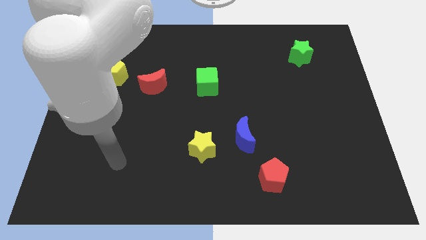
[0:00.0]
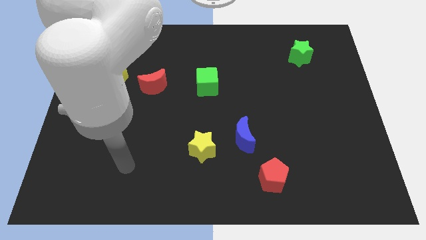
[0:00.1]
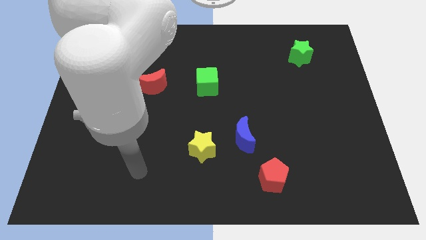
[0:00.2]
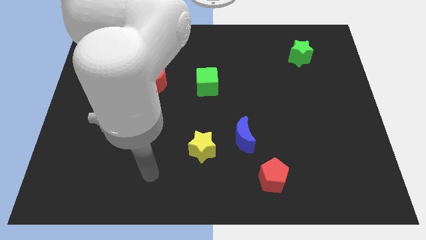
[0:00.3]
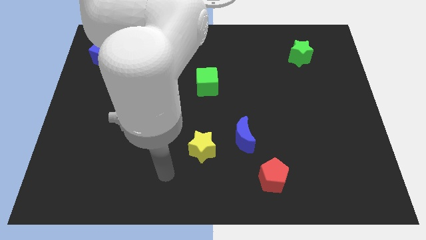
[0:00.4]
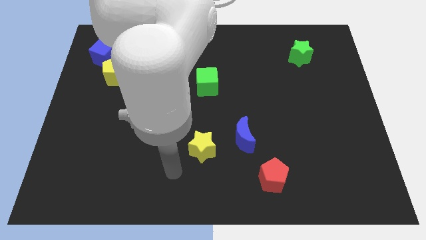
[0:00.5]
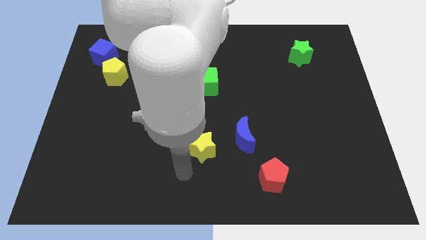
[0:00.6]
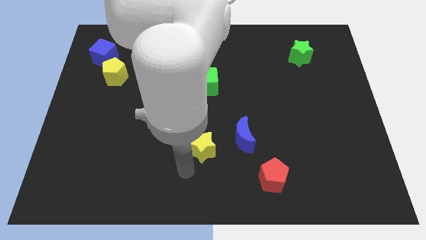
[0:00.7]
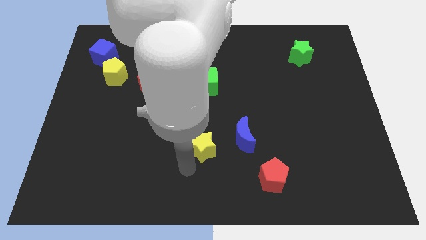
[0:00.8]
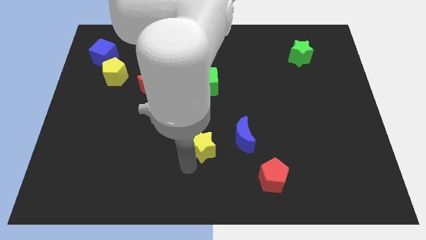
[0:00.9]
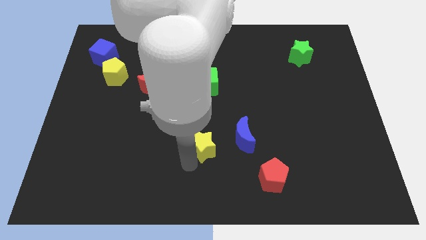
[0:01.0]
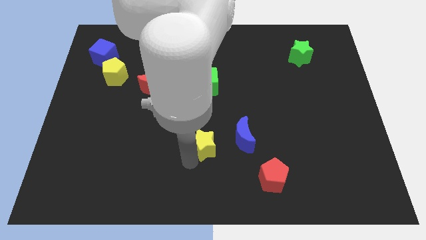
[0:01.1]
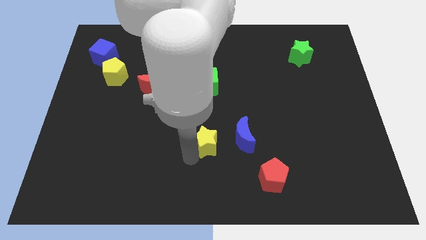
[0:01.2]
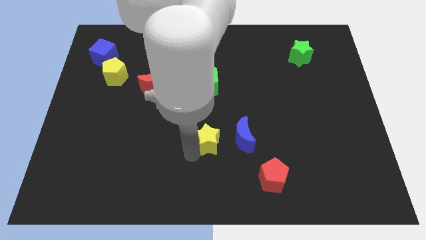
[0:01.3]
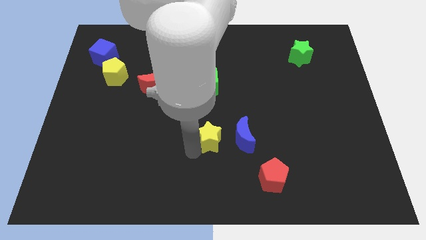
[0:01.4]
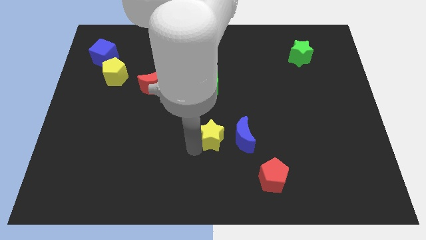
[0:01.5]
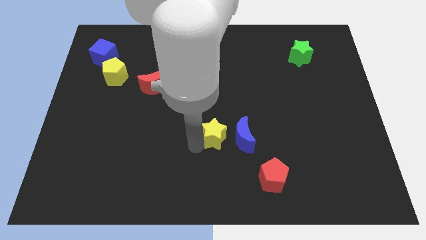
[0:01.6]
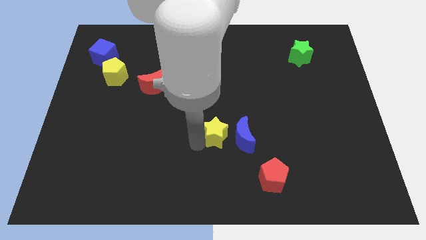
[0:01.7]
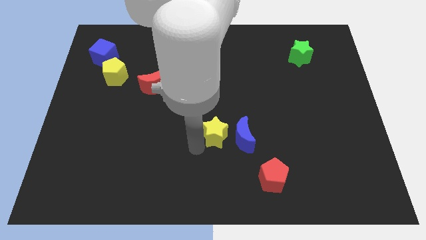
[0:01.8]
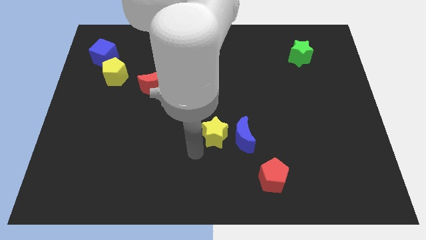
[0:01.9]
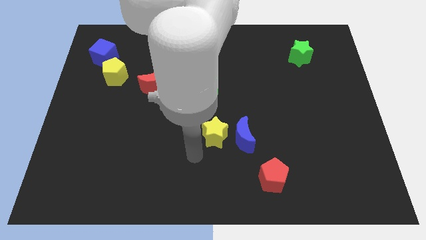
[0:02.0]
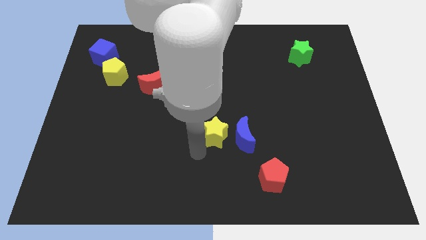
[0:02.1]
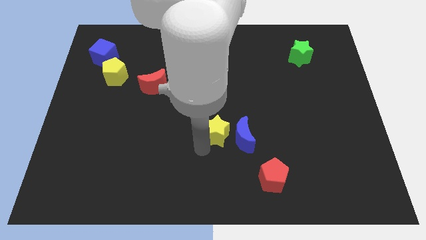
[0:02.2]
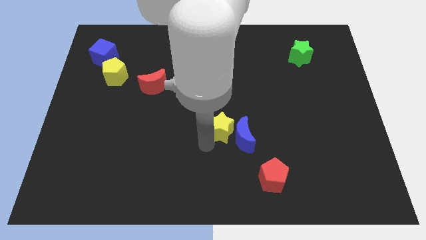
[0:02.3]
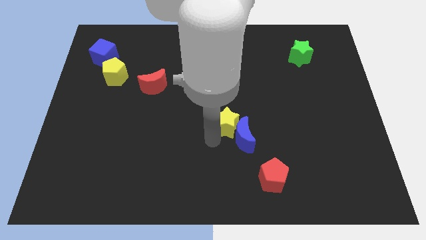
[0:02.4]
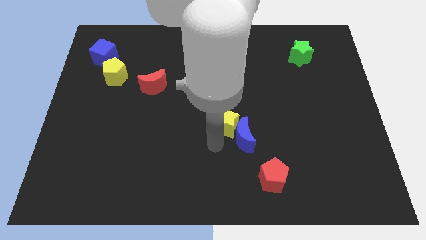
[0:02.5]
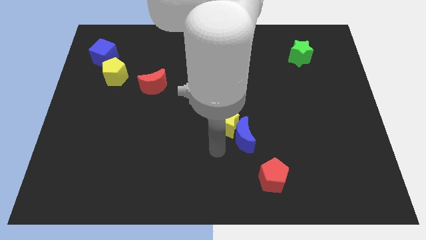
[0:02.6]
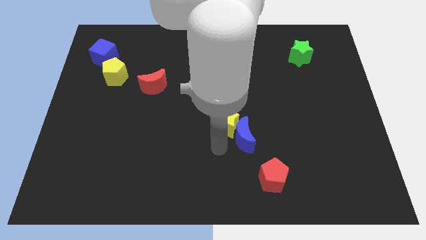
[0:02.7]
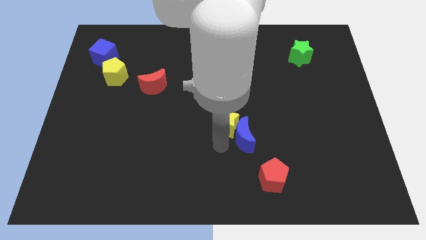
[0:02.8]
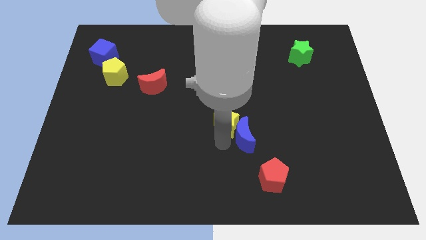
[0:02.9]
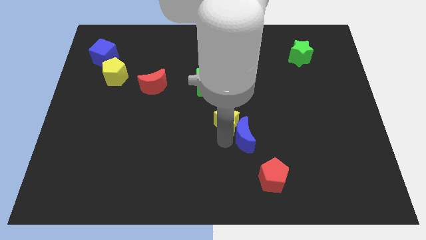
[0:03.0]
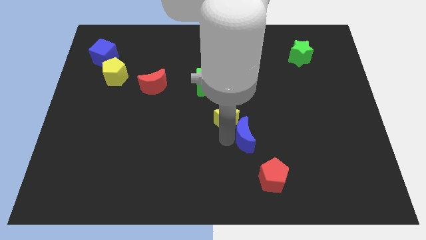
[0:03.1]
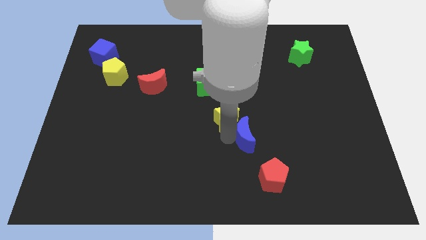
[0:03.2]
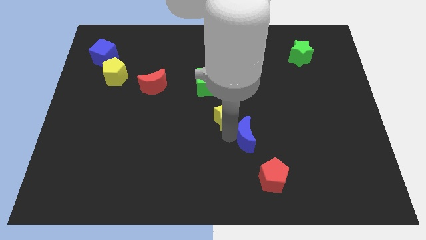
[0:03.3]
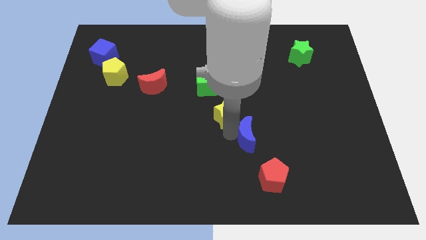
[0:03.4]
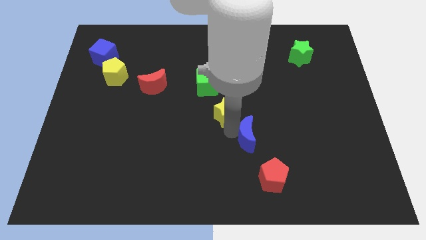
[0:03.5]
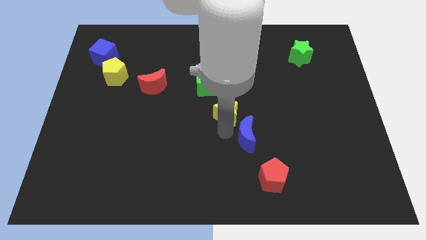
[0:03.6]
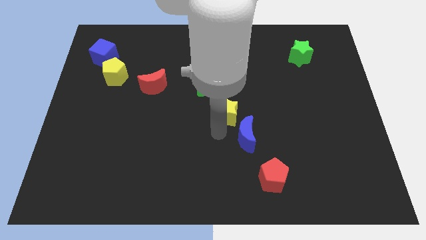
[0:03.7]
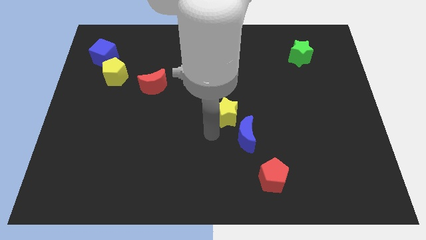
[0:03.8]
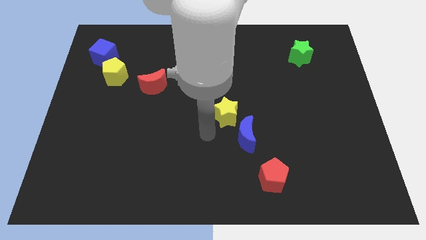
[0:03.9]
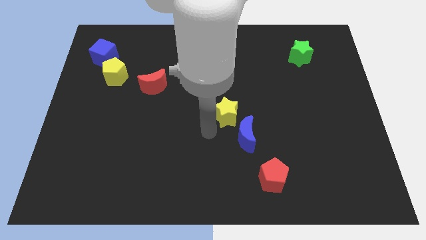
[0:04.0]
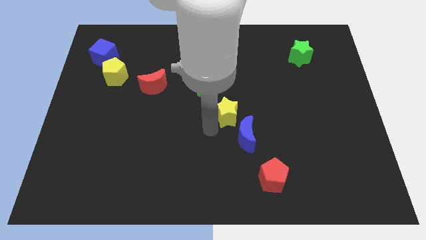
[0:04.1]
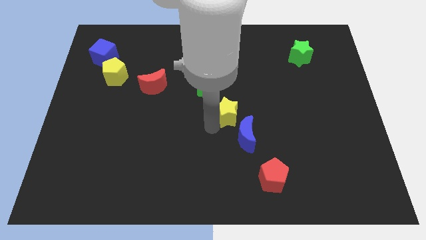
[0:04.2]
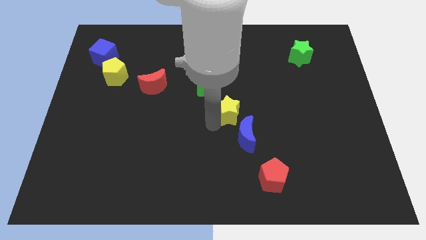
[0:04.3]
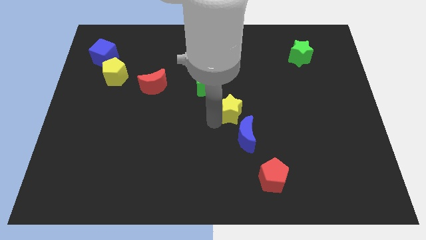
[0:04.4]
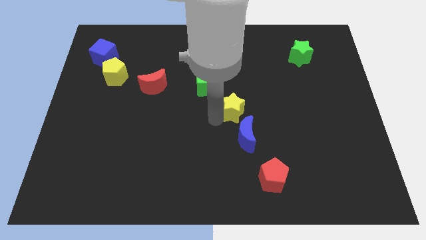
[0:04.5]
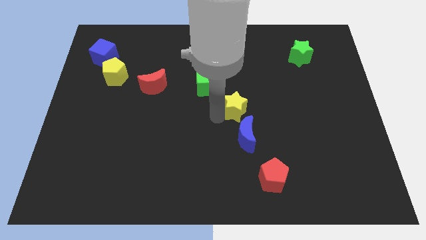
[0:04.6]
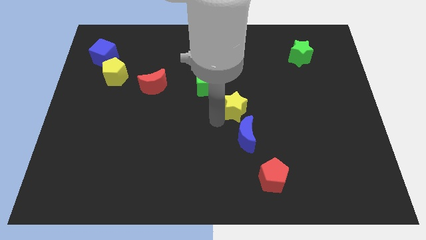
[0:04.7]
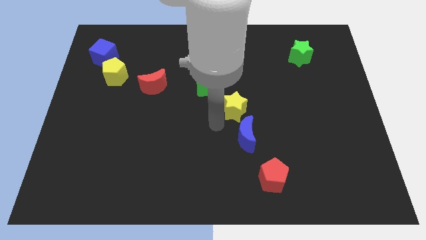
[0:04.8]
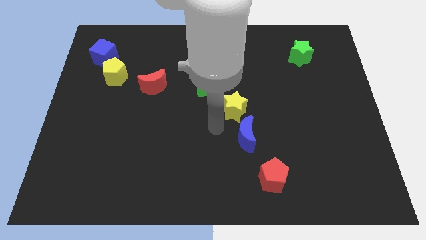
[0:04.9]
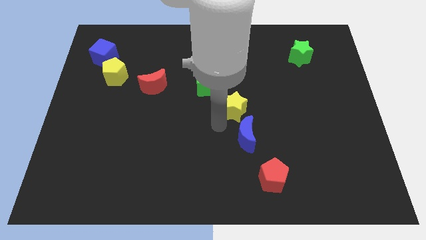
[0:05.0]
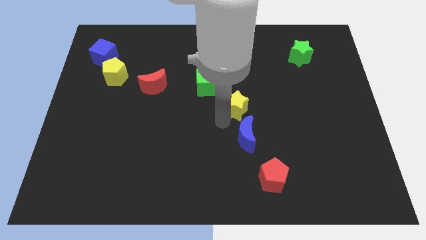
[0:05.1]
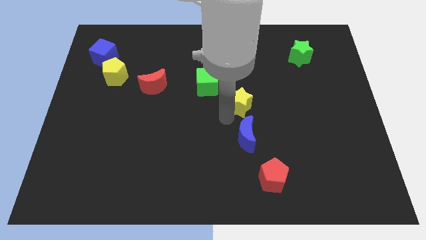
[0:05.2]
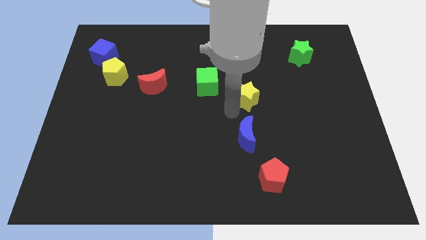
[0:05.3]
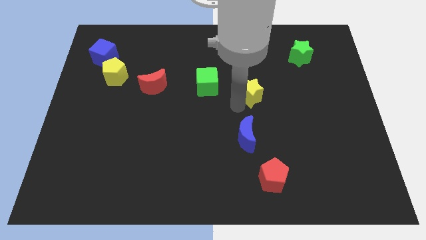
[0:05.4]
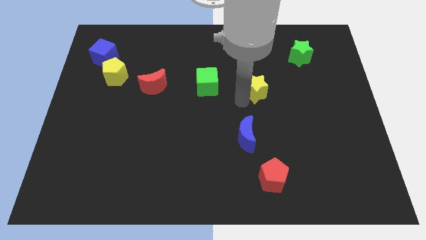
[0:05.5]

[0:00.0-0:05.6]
push the yellow star diagonally up and to the right

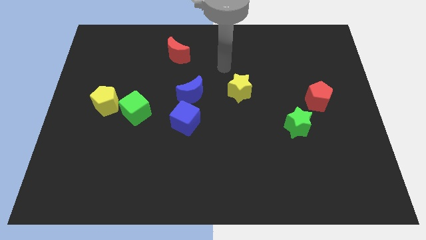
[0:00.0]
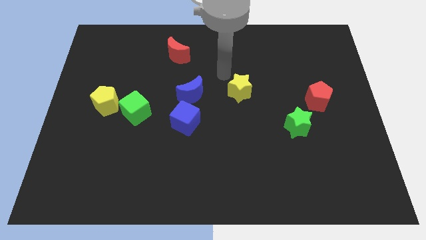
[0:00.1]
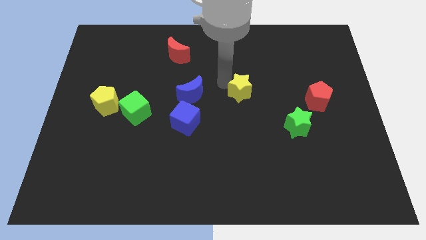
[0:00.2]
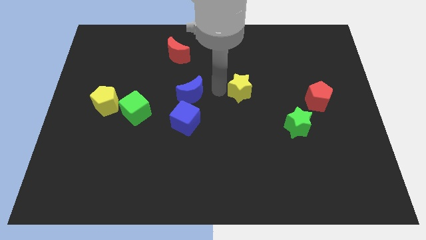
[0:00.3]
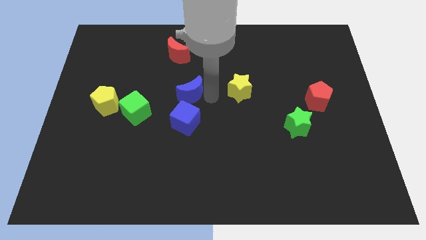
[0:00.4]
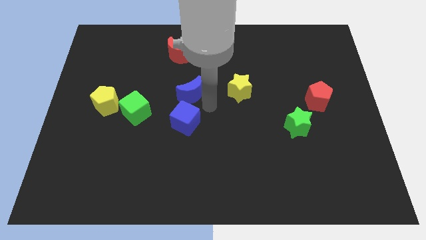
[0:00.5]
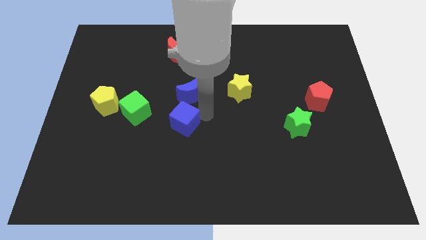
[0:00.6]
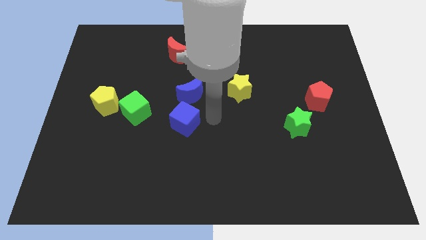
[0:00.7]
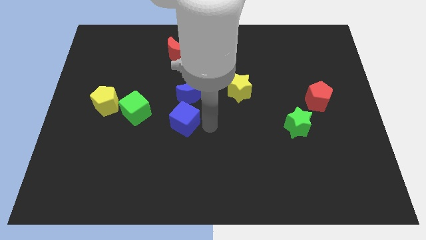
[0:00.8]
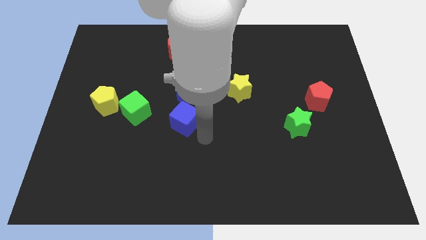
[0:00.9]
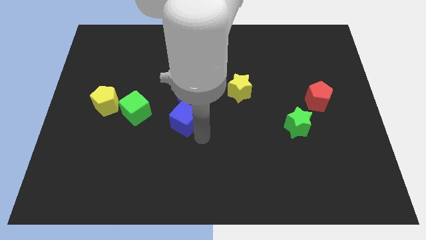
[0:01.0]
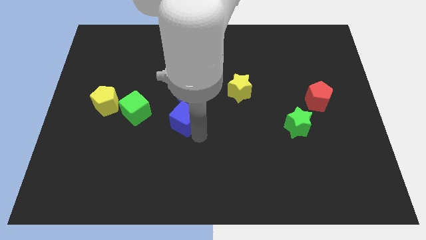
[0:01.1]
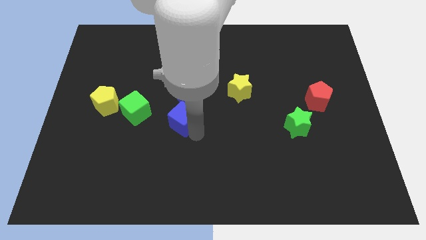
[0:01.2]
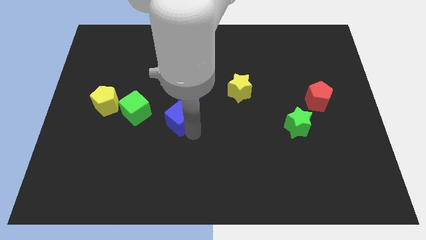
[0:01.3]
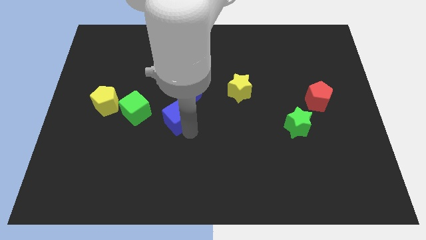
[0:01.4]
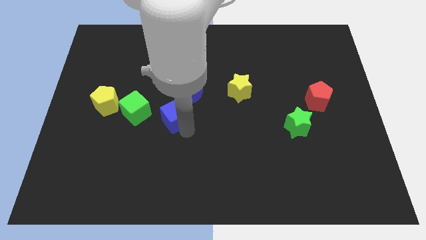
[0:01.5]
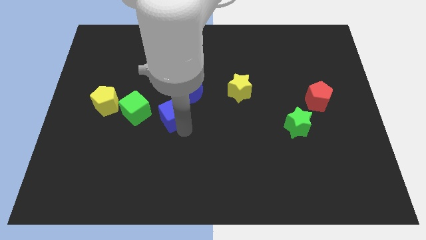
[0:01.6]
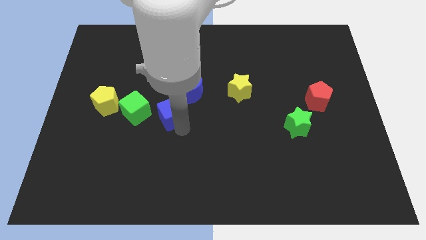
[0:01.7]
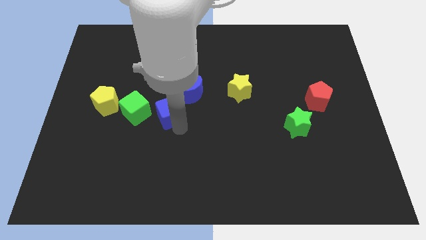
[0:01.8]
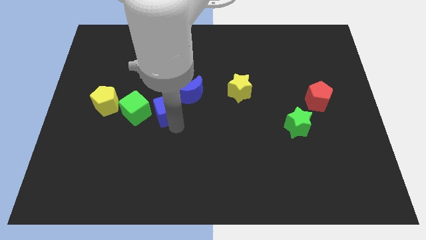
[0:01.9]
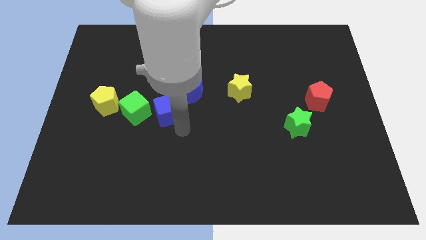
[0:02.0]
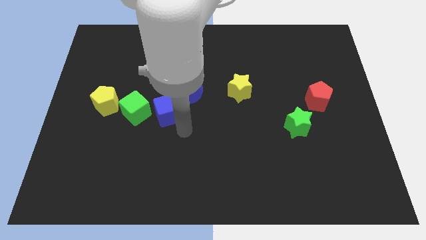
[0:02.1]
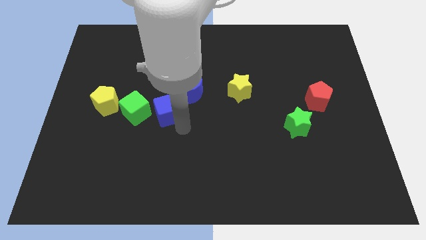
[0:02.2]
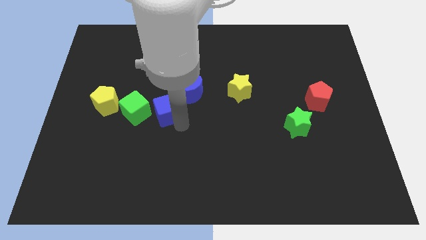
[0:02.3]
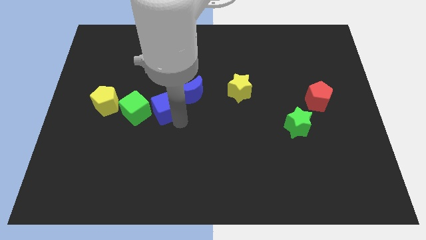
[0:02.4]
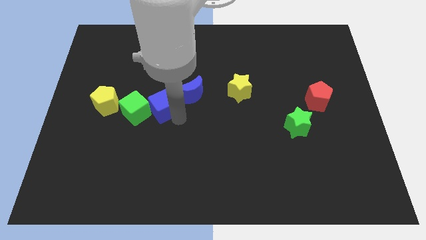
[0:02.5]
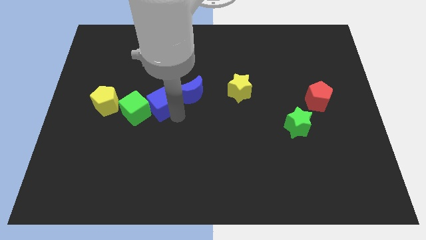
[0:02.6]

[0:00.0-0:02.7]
move the blue cube slightly diagonally up and left
